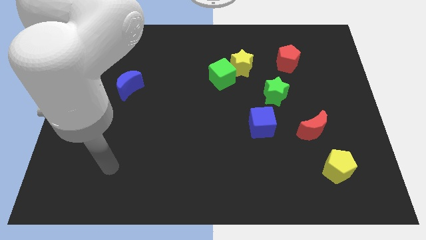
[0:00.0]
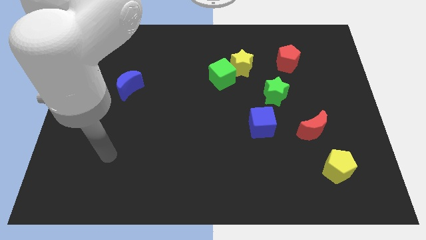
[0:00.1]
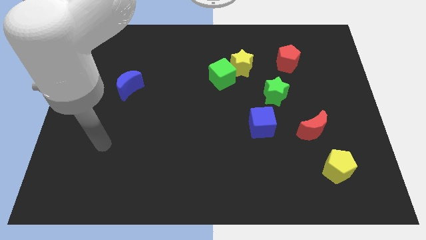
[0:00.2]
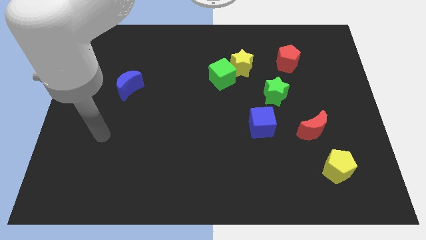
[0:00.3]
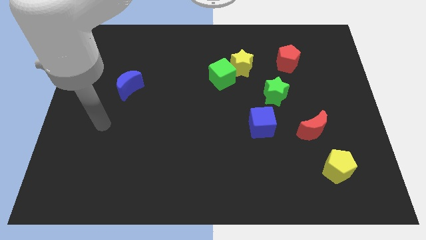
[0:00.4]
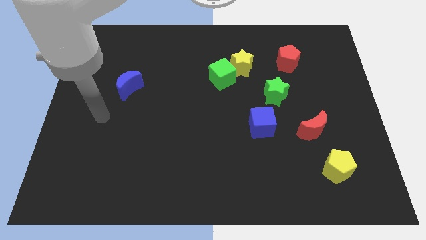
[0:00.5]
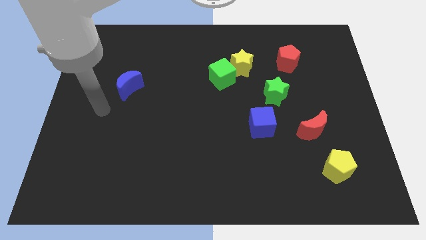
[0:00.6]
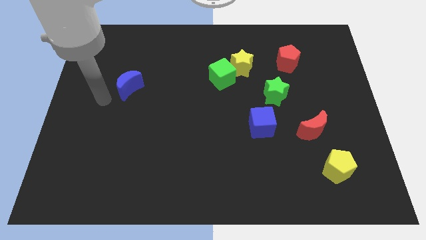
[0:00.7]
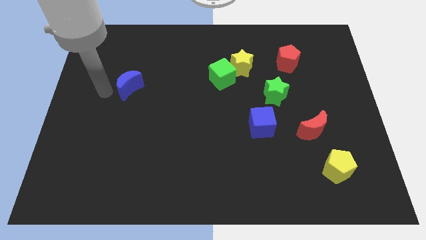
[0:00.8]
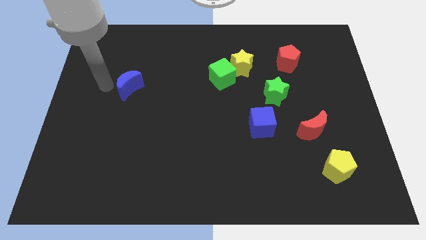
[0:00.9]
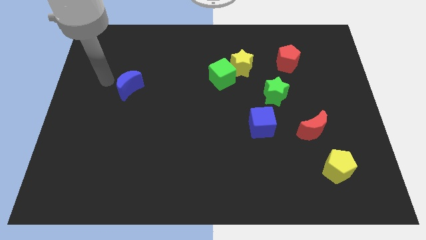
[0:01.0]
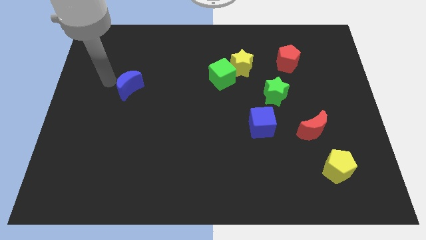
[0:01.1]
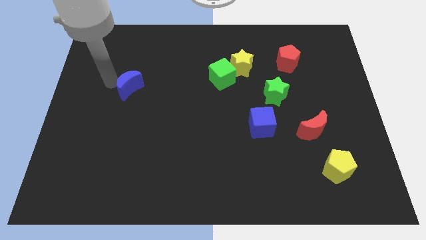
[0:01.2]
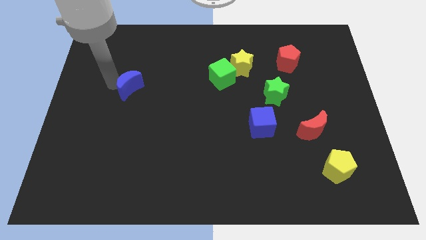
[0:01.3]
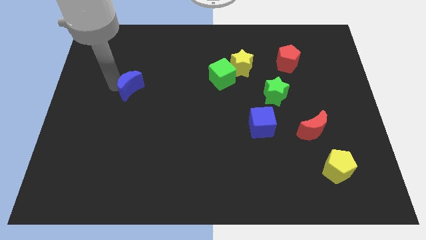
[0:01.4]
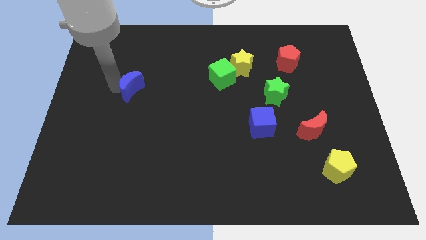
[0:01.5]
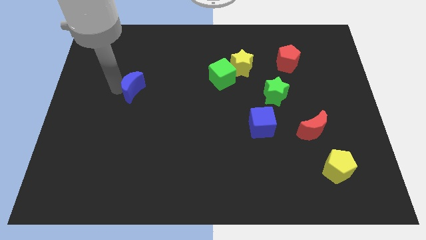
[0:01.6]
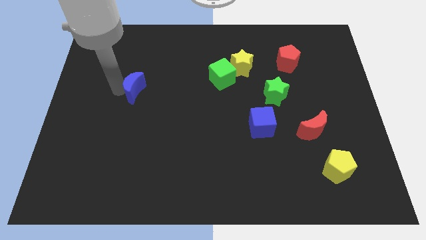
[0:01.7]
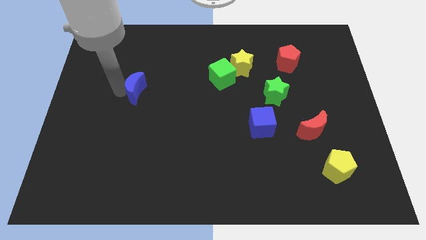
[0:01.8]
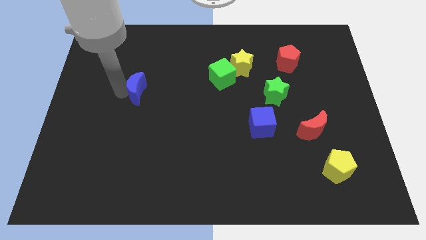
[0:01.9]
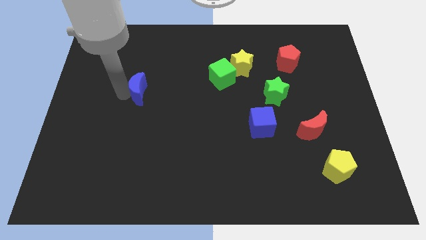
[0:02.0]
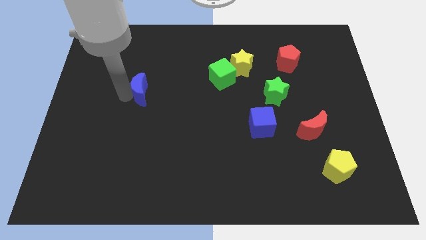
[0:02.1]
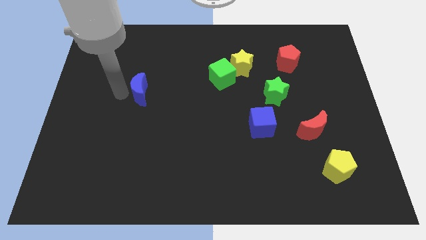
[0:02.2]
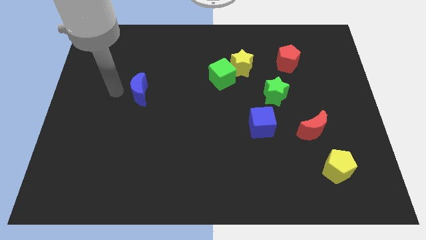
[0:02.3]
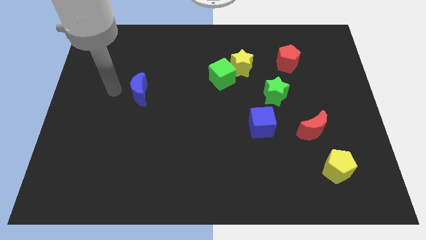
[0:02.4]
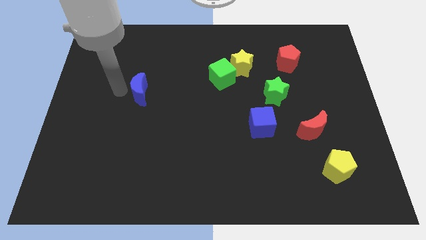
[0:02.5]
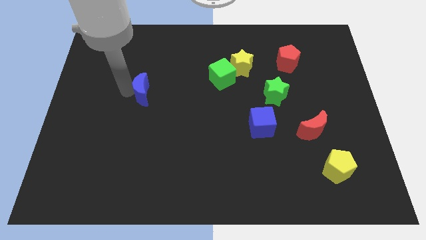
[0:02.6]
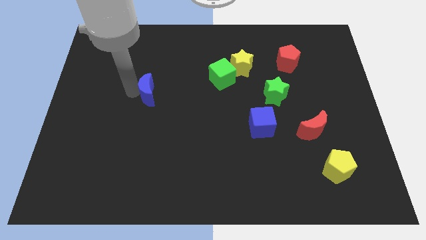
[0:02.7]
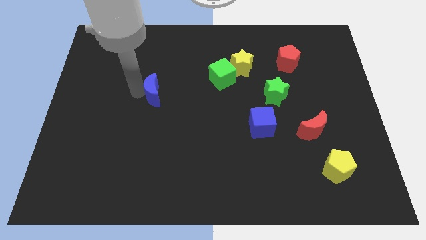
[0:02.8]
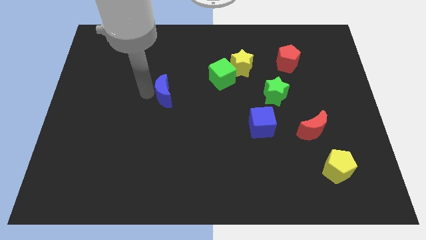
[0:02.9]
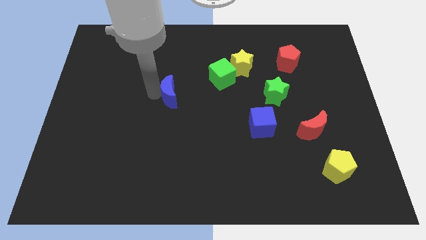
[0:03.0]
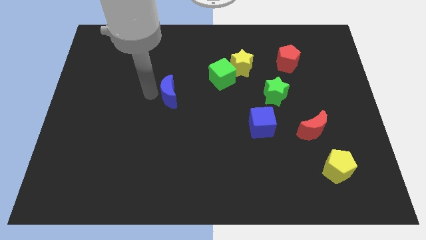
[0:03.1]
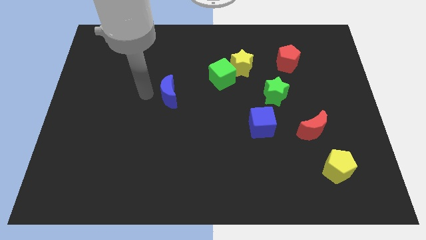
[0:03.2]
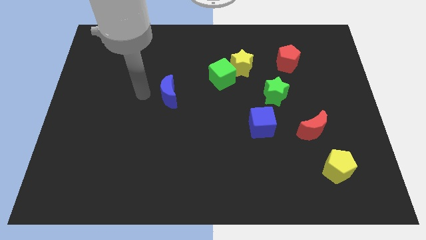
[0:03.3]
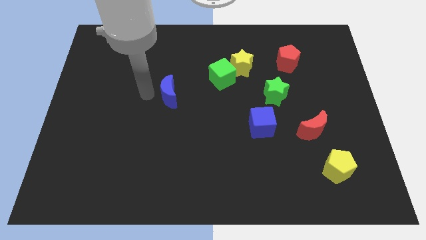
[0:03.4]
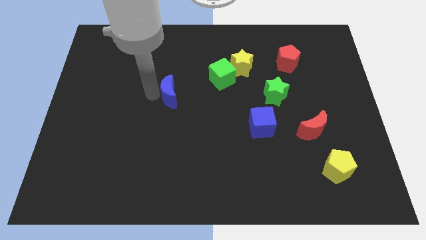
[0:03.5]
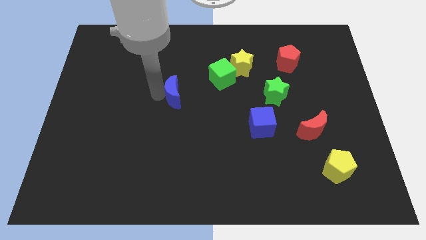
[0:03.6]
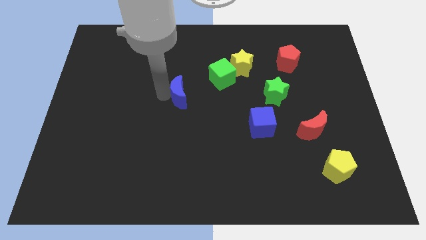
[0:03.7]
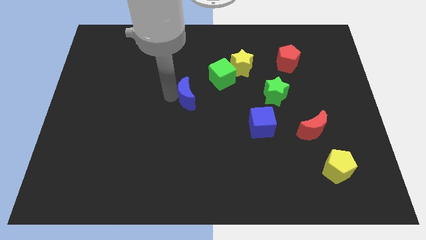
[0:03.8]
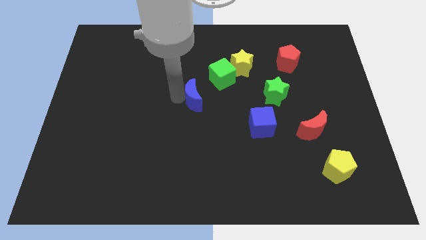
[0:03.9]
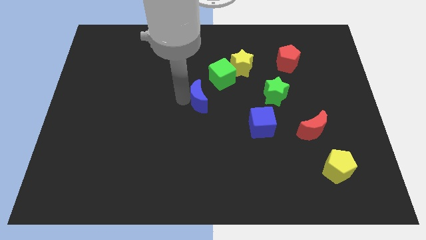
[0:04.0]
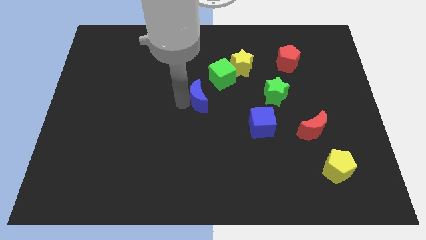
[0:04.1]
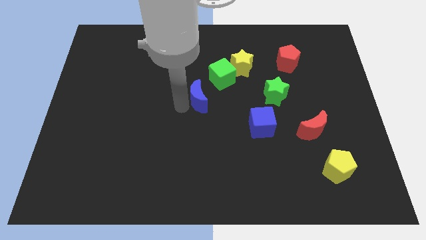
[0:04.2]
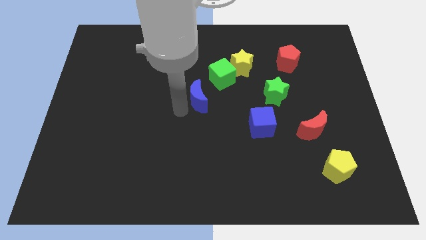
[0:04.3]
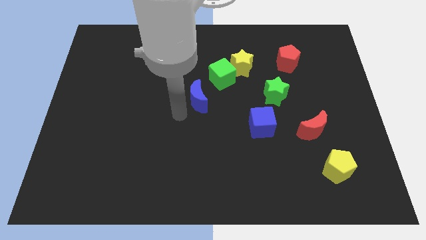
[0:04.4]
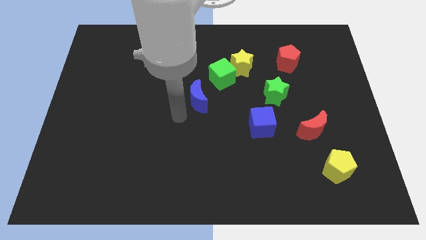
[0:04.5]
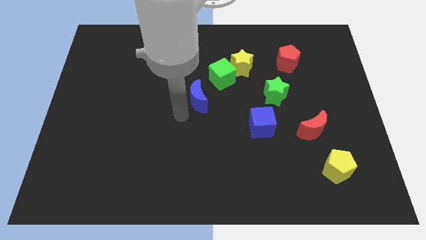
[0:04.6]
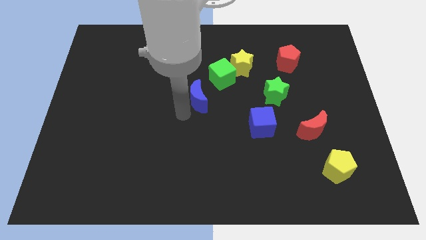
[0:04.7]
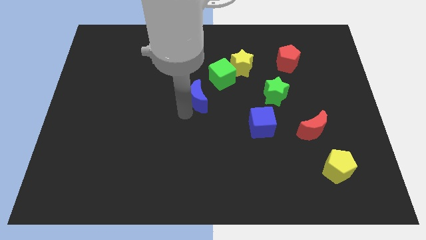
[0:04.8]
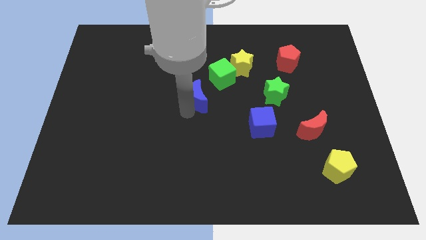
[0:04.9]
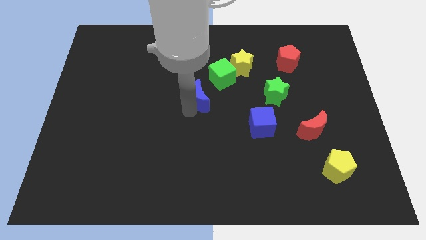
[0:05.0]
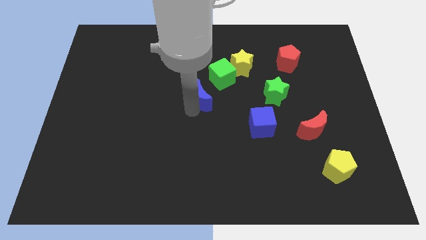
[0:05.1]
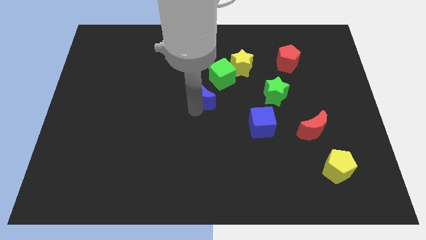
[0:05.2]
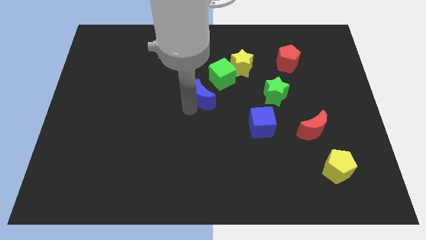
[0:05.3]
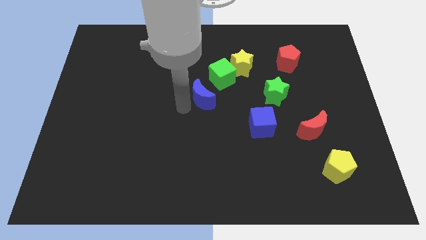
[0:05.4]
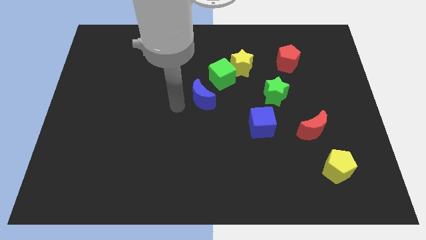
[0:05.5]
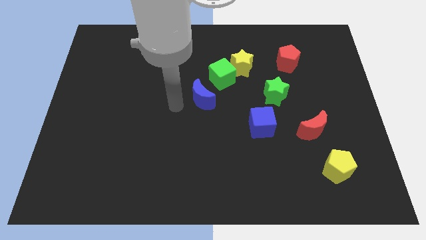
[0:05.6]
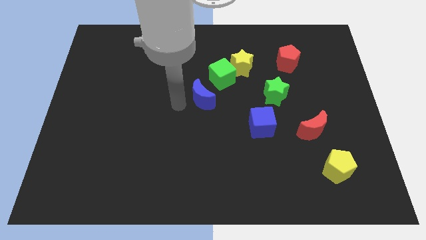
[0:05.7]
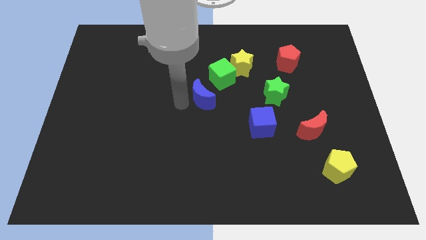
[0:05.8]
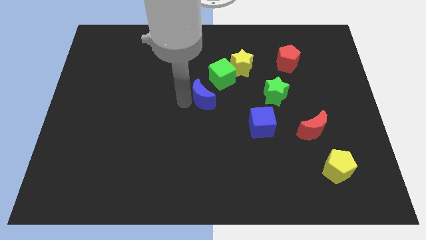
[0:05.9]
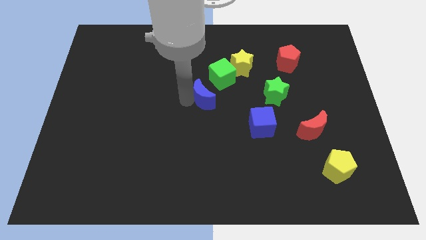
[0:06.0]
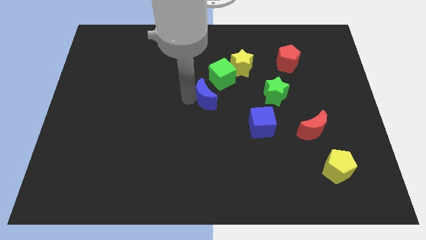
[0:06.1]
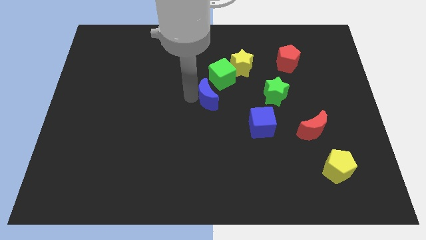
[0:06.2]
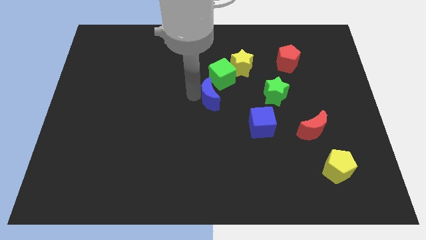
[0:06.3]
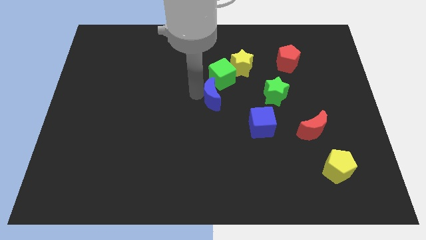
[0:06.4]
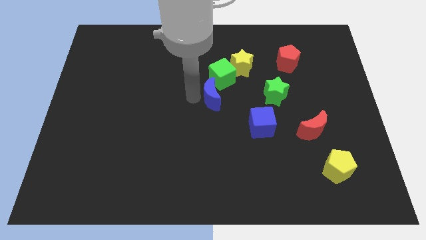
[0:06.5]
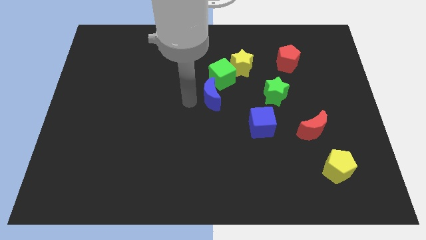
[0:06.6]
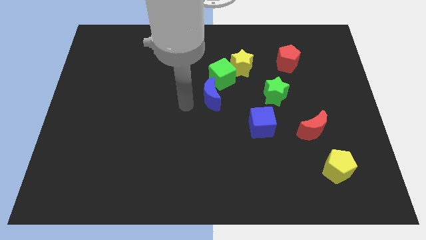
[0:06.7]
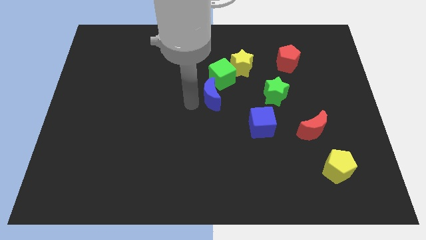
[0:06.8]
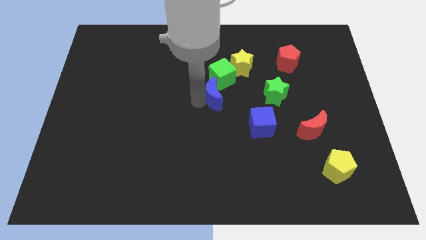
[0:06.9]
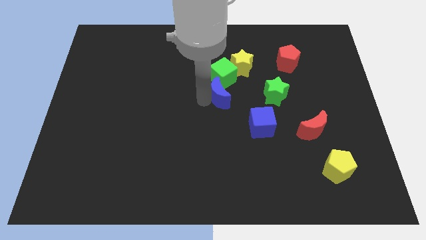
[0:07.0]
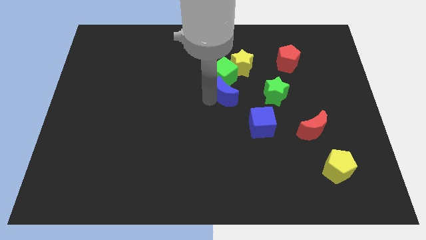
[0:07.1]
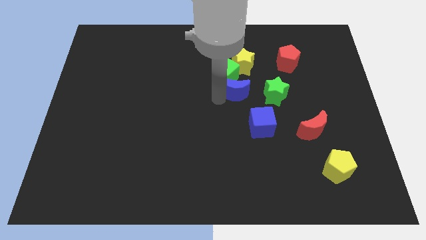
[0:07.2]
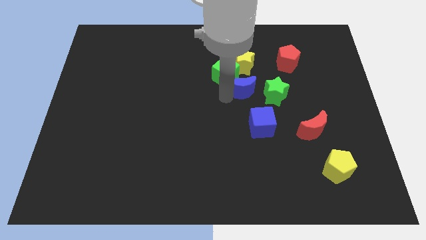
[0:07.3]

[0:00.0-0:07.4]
slide the blue moon diagonally up and to the left of the green star
